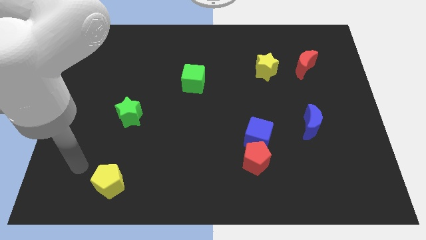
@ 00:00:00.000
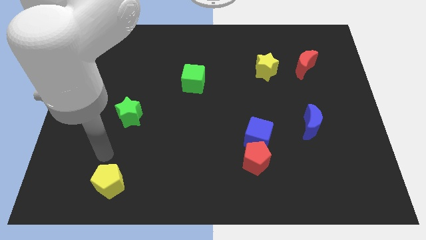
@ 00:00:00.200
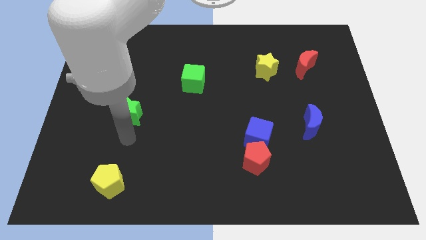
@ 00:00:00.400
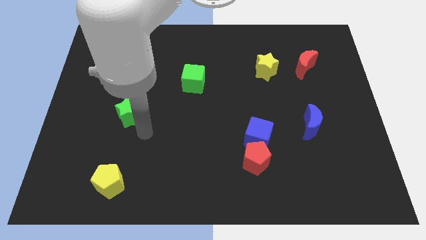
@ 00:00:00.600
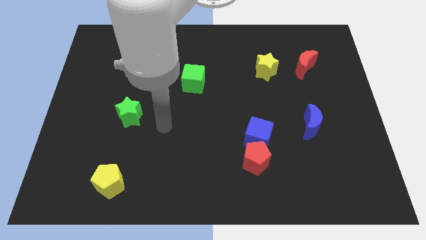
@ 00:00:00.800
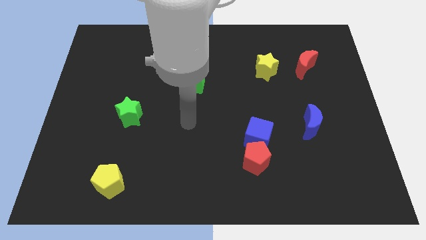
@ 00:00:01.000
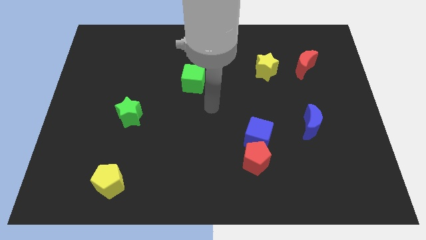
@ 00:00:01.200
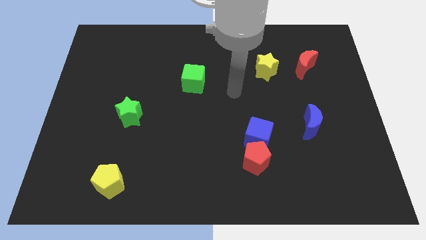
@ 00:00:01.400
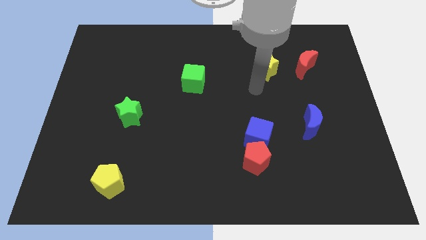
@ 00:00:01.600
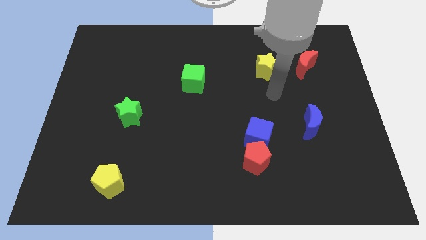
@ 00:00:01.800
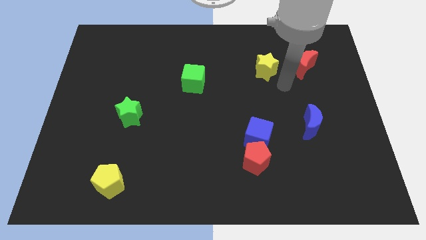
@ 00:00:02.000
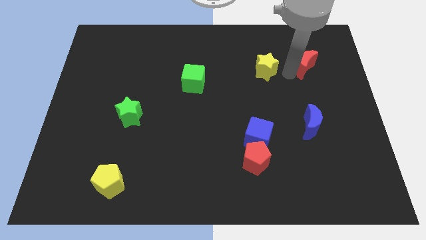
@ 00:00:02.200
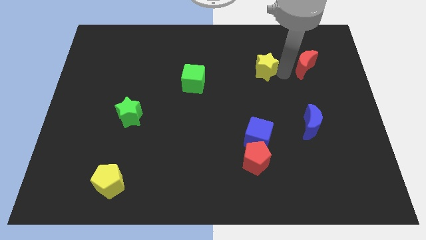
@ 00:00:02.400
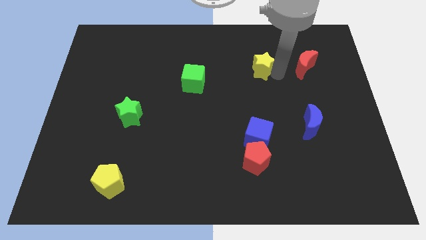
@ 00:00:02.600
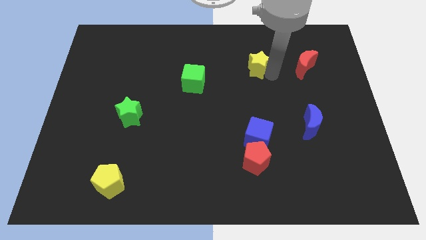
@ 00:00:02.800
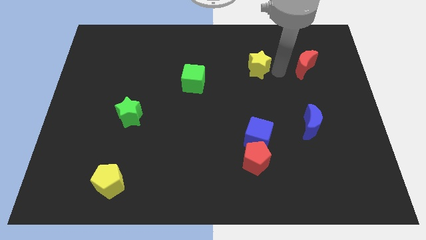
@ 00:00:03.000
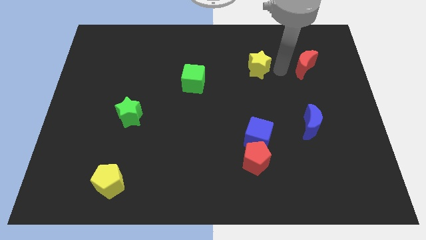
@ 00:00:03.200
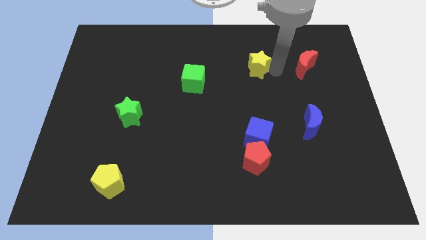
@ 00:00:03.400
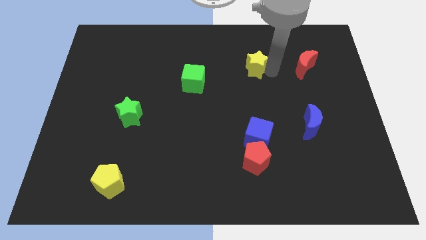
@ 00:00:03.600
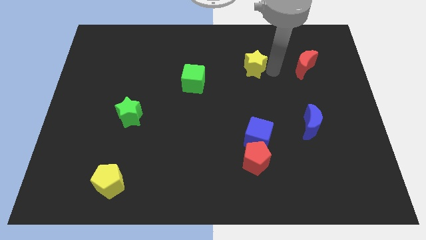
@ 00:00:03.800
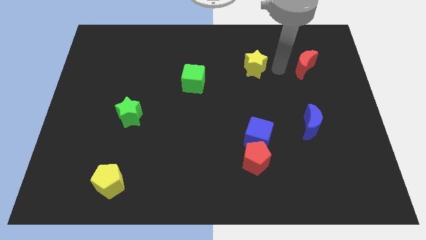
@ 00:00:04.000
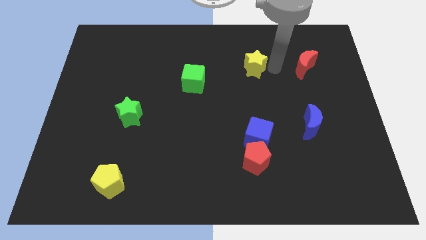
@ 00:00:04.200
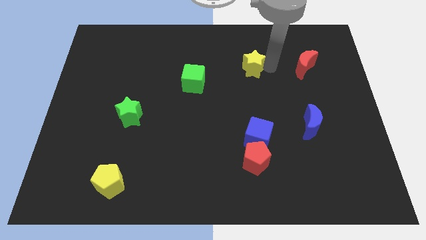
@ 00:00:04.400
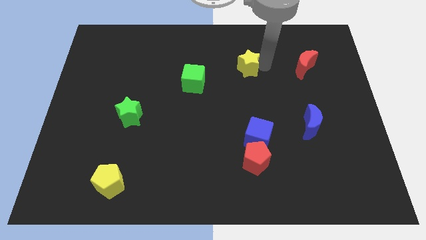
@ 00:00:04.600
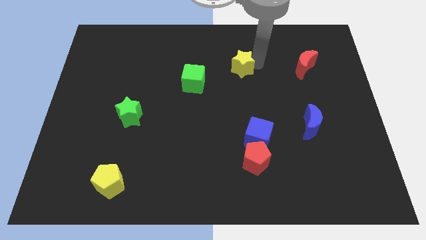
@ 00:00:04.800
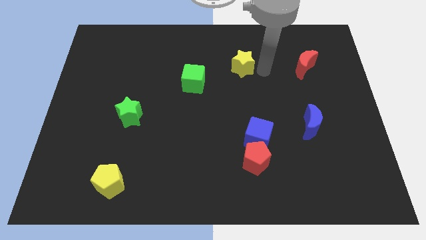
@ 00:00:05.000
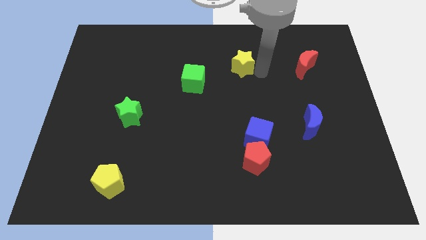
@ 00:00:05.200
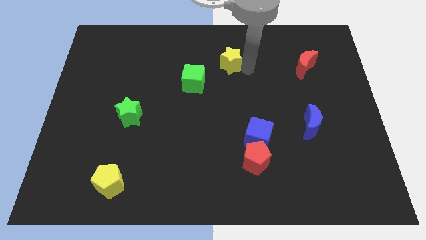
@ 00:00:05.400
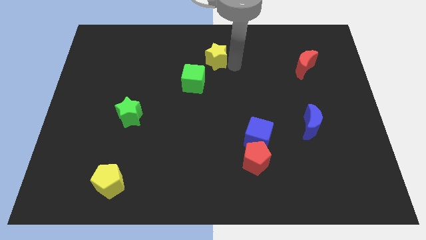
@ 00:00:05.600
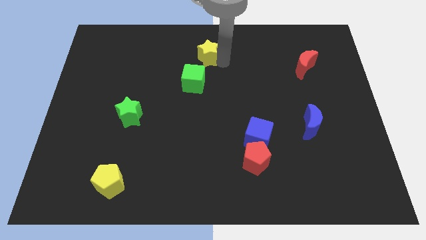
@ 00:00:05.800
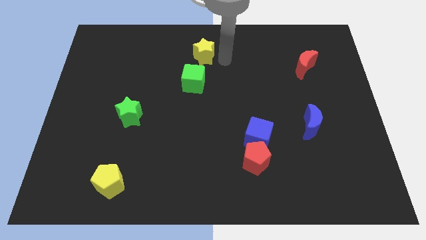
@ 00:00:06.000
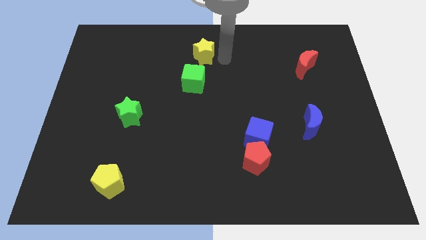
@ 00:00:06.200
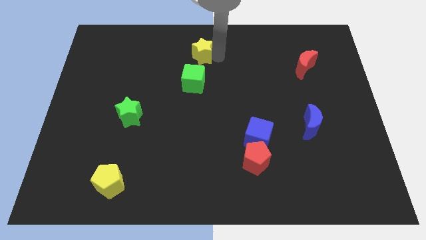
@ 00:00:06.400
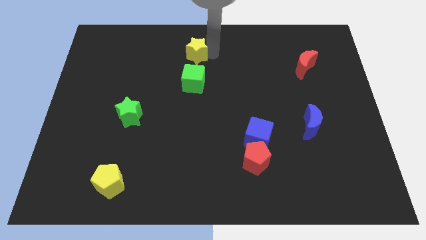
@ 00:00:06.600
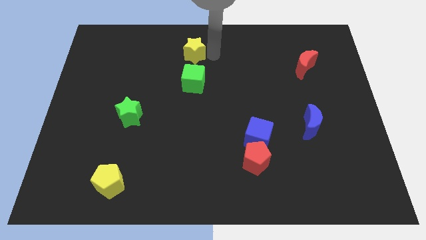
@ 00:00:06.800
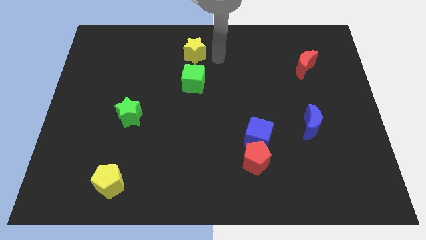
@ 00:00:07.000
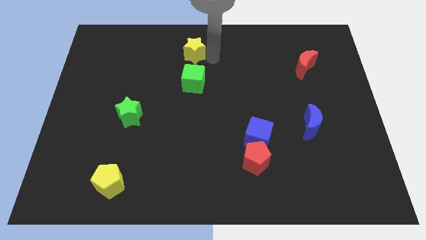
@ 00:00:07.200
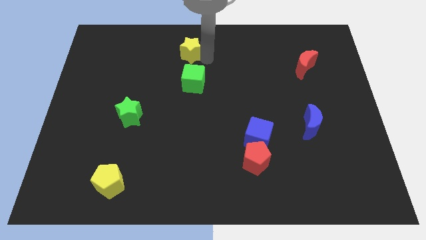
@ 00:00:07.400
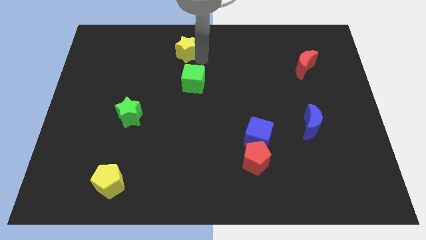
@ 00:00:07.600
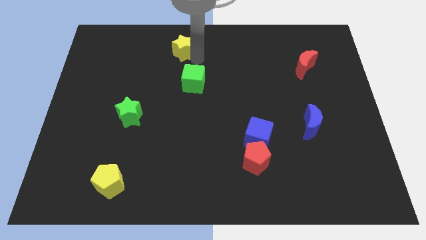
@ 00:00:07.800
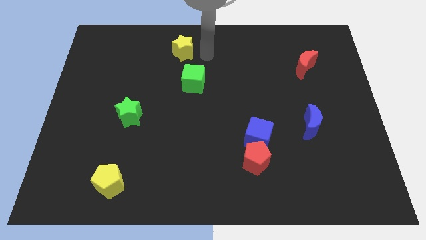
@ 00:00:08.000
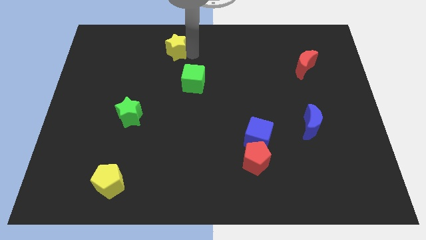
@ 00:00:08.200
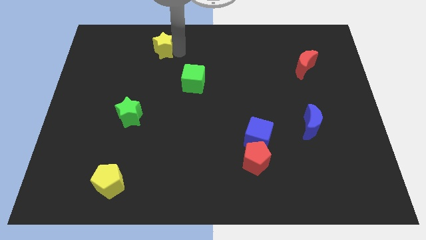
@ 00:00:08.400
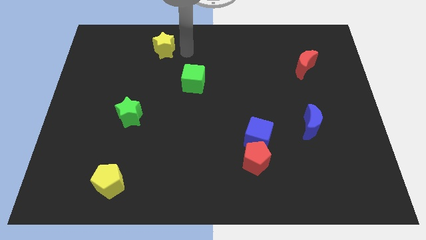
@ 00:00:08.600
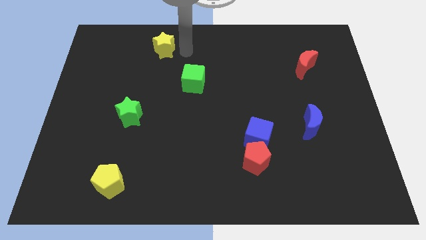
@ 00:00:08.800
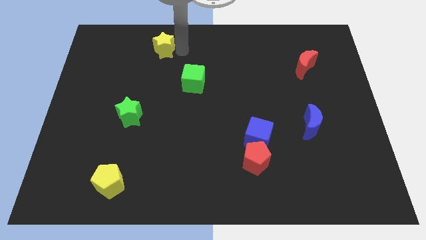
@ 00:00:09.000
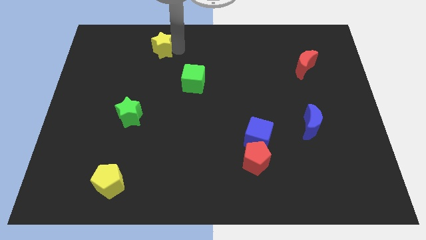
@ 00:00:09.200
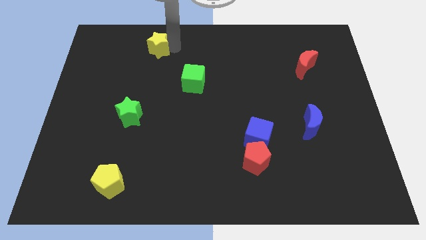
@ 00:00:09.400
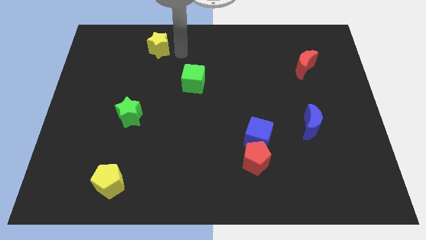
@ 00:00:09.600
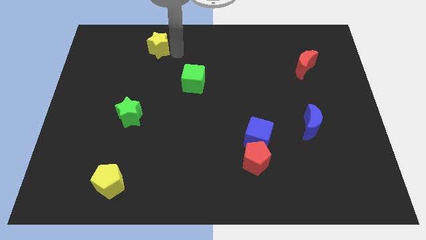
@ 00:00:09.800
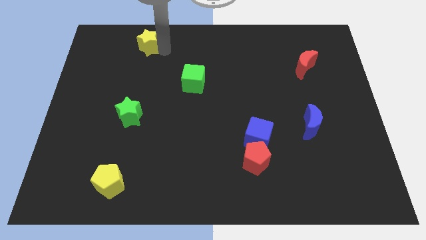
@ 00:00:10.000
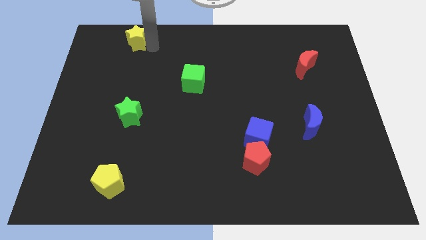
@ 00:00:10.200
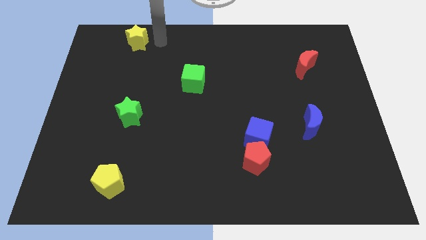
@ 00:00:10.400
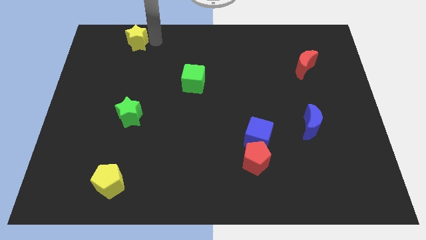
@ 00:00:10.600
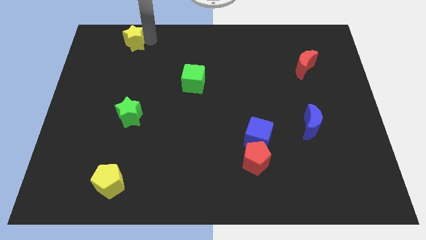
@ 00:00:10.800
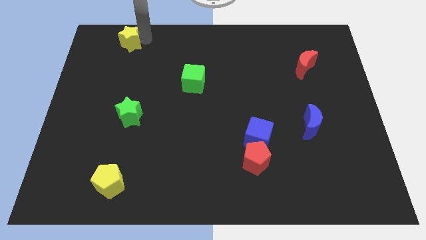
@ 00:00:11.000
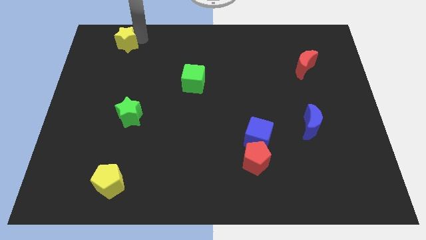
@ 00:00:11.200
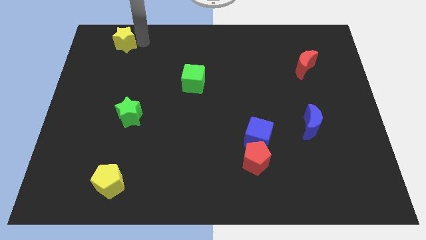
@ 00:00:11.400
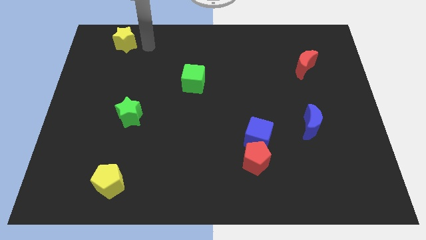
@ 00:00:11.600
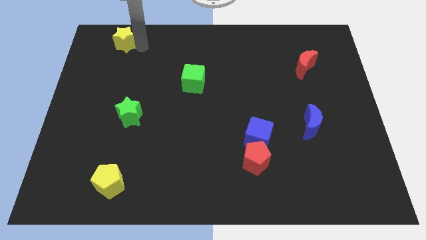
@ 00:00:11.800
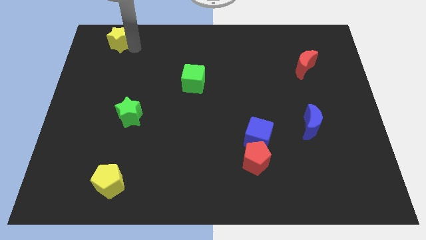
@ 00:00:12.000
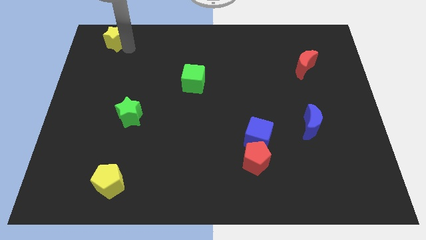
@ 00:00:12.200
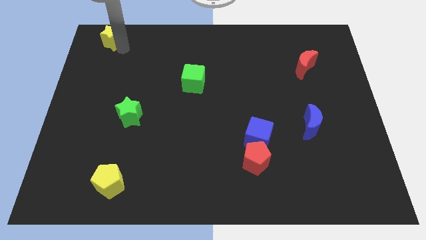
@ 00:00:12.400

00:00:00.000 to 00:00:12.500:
move the yellow star to the top left of the board

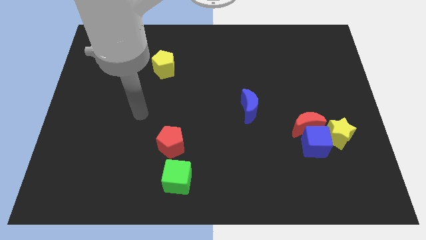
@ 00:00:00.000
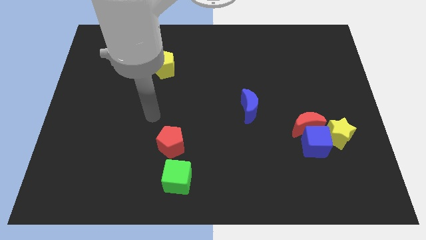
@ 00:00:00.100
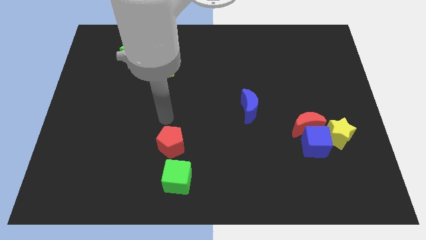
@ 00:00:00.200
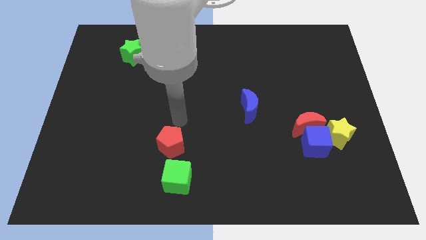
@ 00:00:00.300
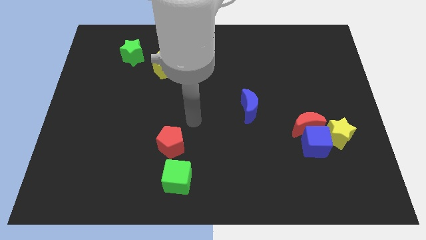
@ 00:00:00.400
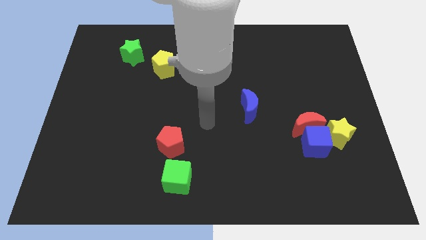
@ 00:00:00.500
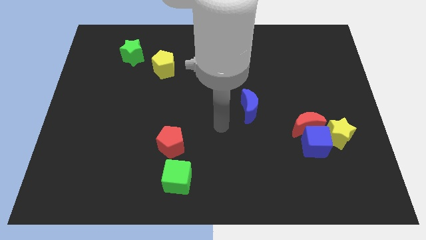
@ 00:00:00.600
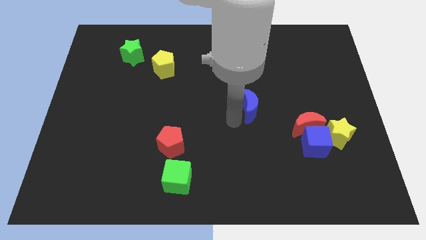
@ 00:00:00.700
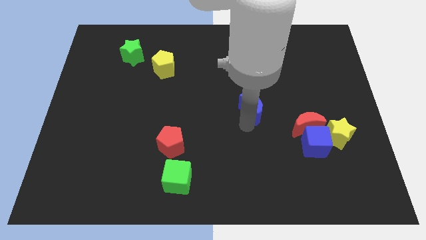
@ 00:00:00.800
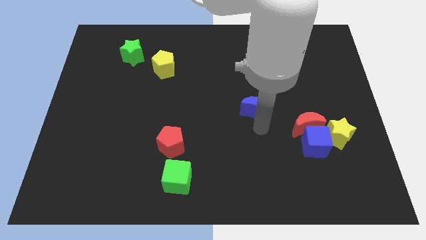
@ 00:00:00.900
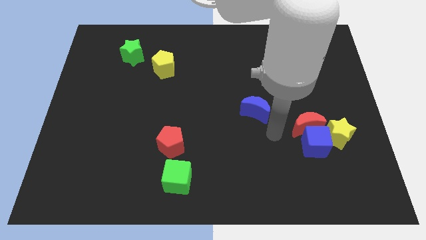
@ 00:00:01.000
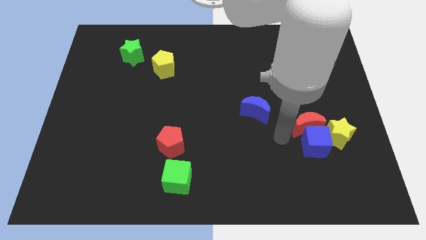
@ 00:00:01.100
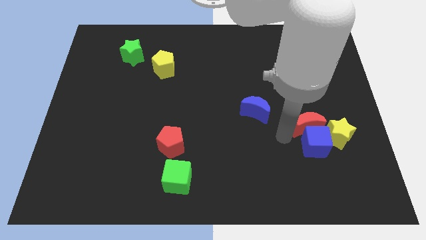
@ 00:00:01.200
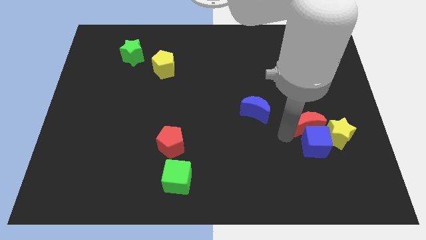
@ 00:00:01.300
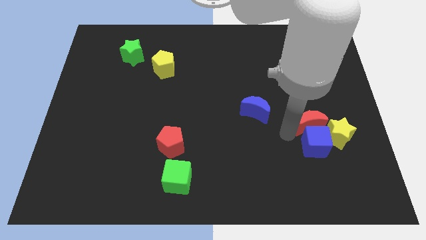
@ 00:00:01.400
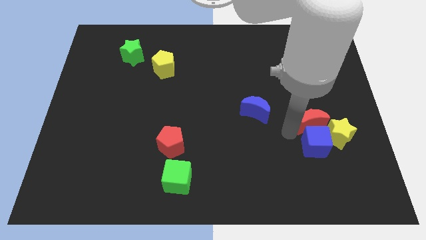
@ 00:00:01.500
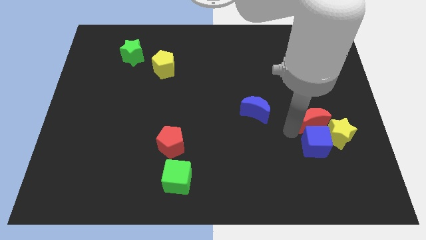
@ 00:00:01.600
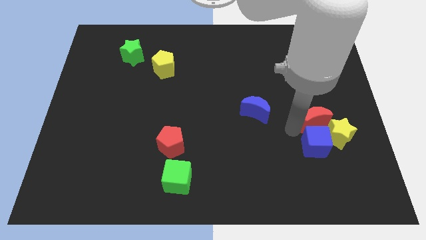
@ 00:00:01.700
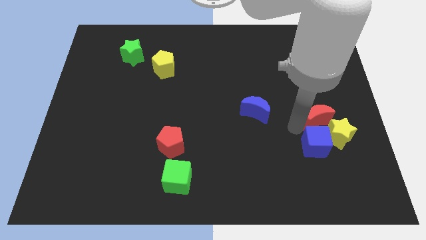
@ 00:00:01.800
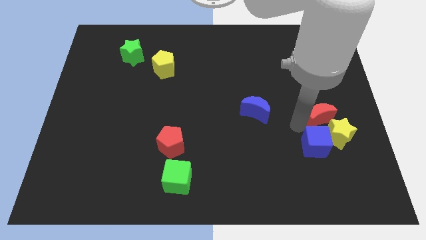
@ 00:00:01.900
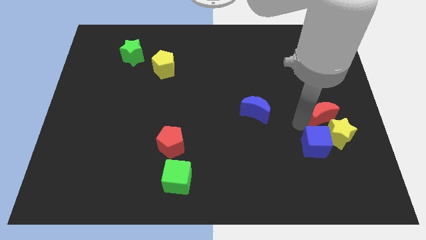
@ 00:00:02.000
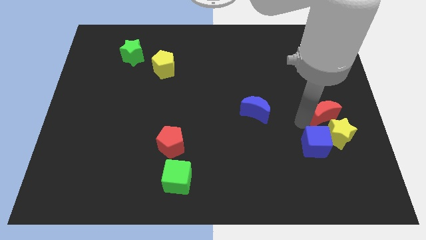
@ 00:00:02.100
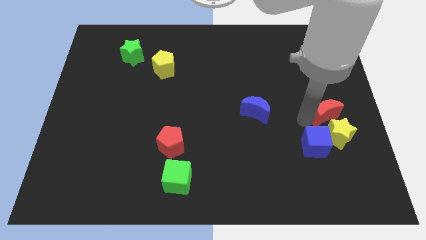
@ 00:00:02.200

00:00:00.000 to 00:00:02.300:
move the red moon to the right side
